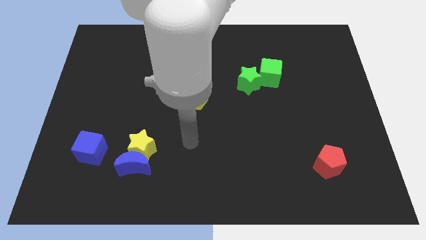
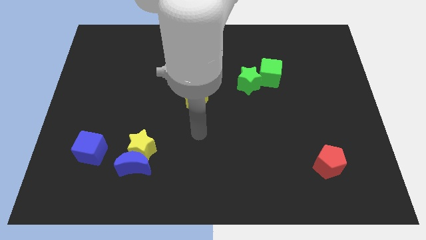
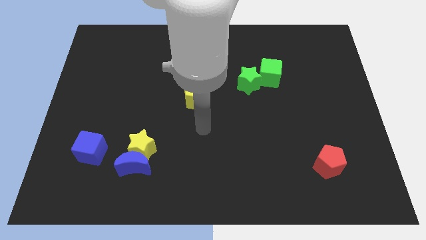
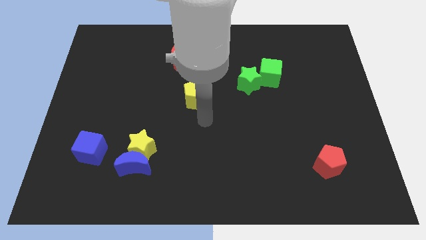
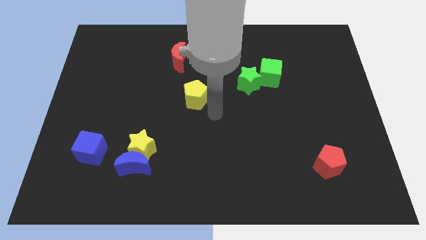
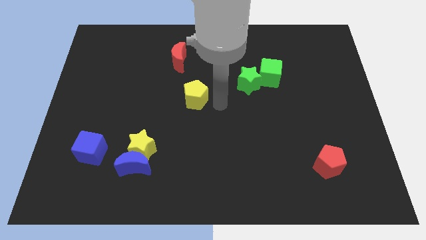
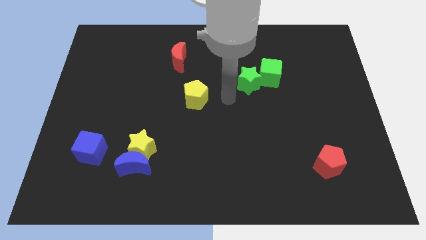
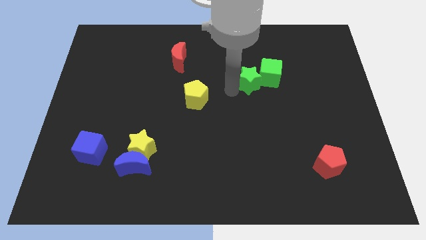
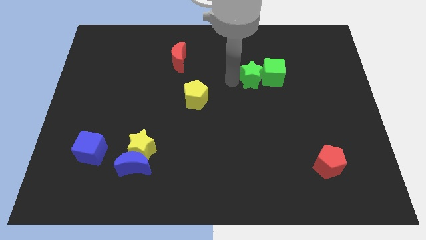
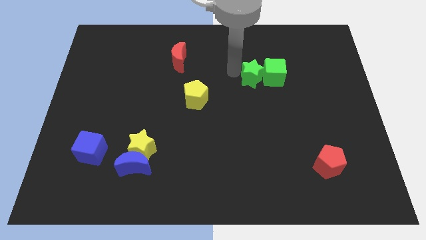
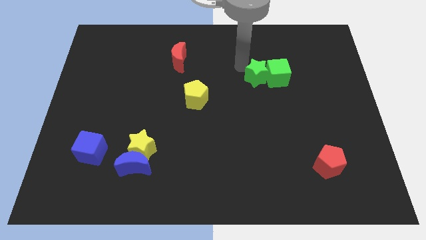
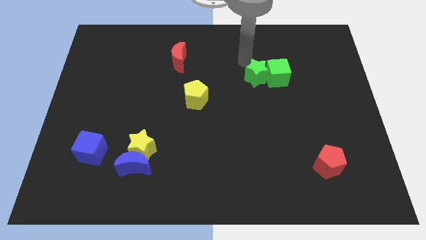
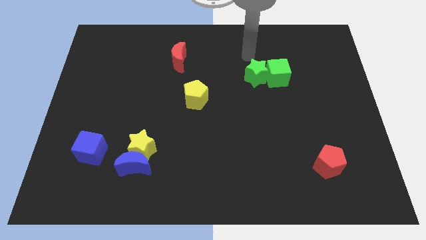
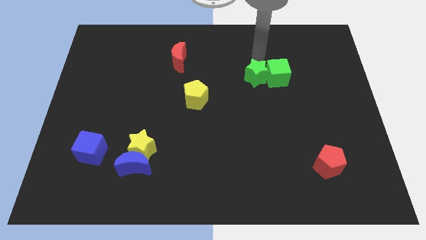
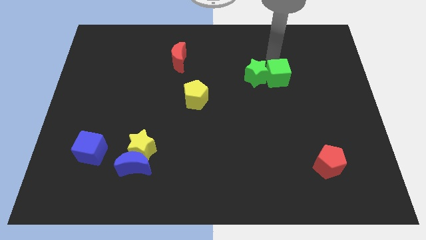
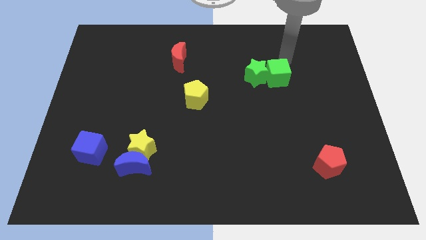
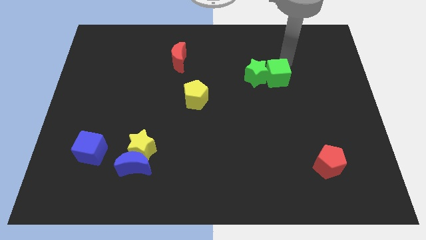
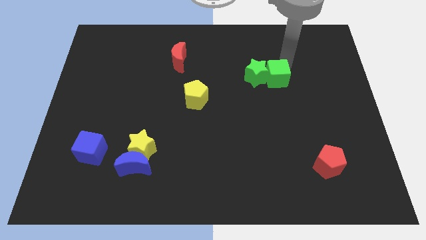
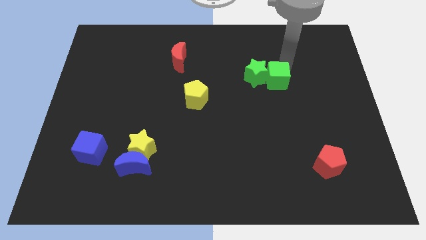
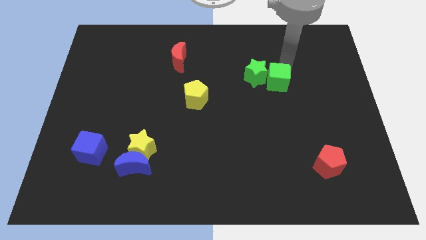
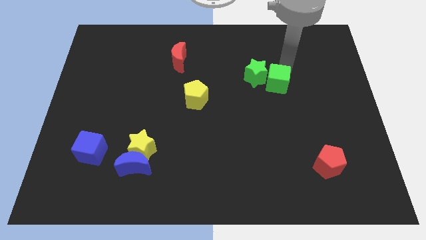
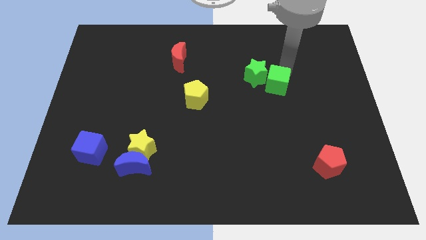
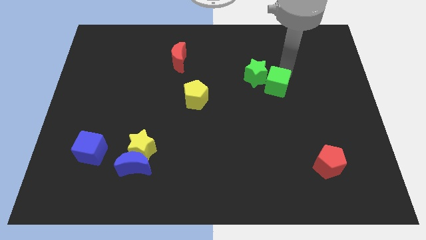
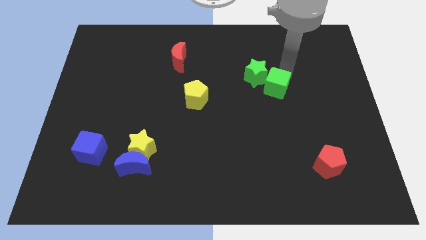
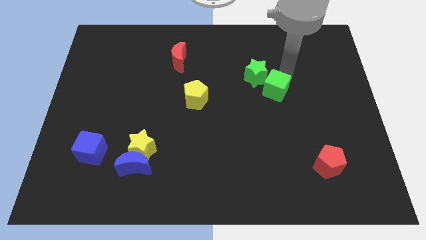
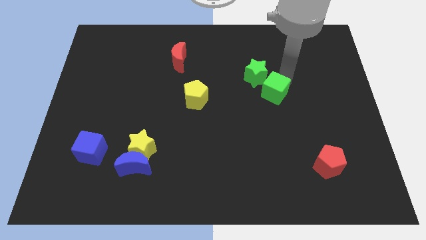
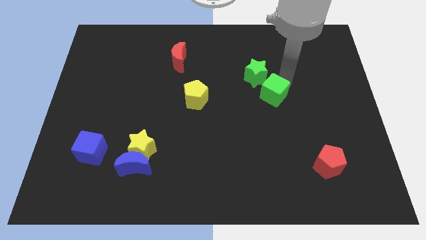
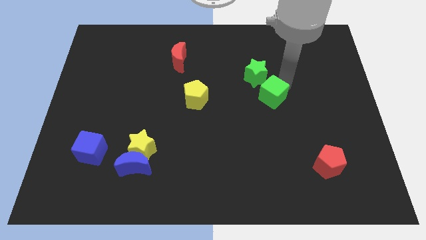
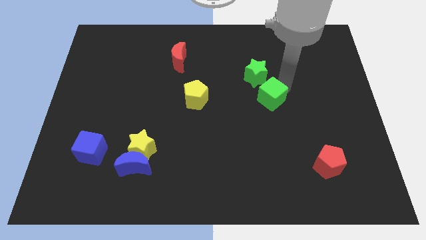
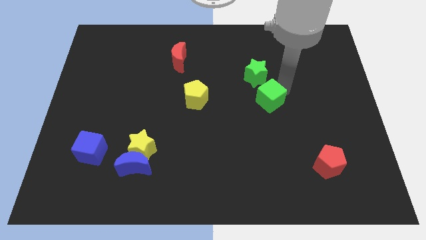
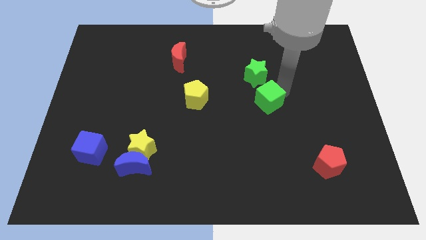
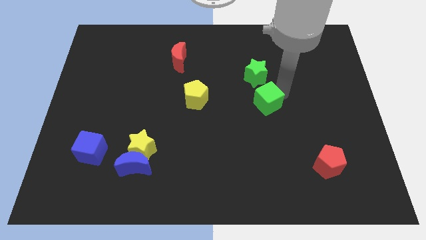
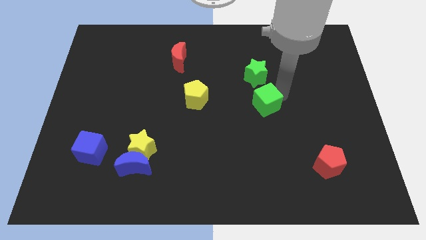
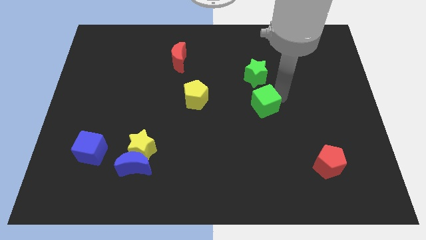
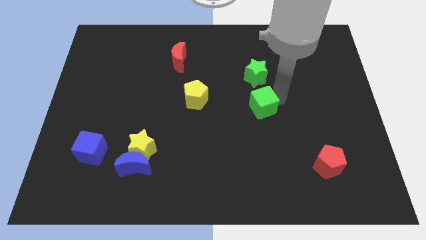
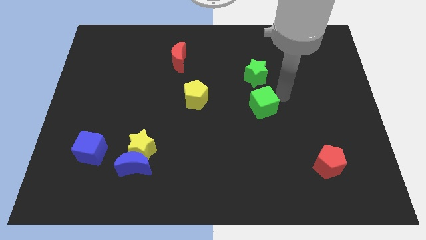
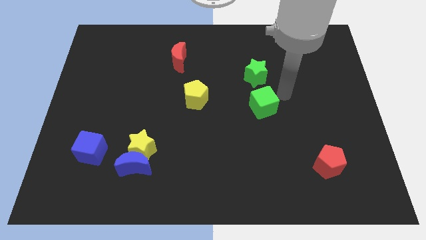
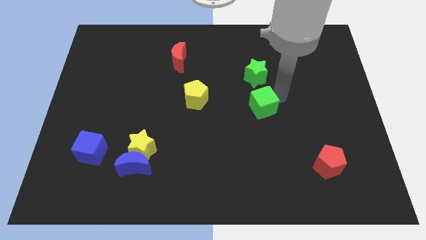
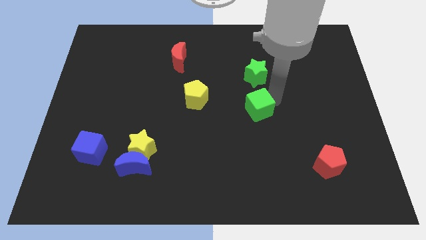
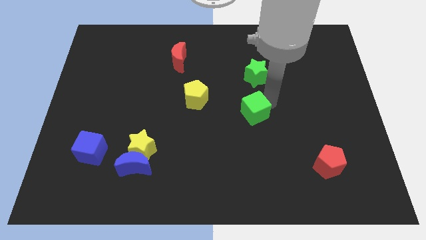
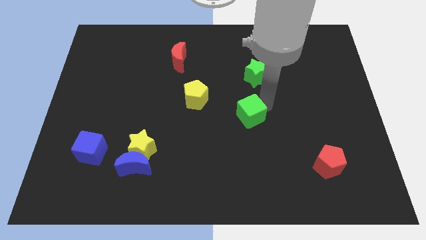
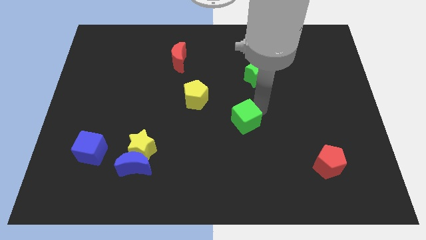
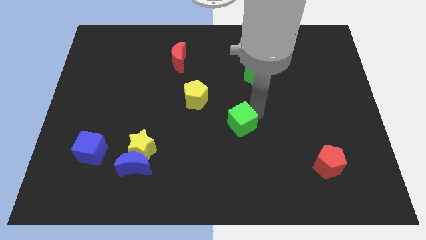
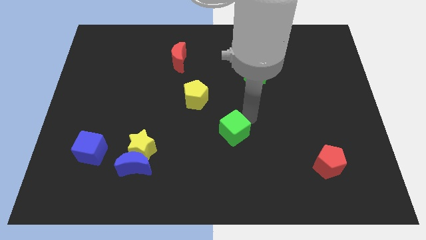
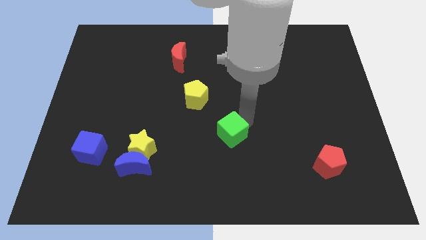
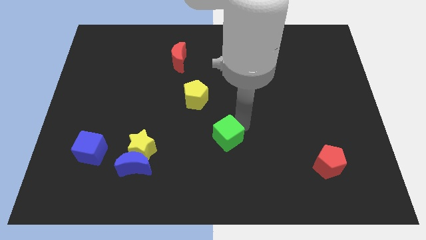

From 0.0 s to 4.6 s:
push the green cube down and left

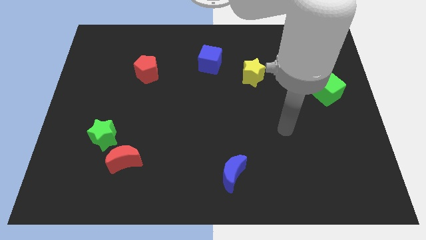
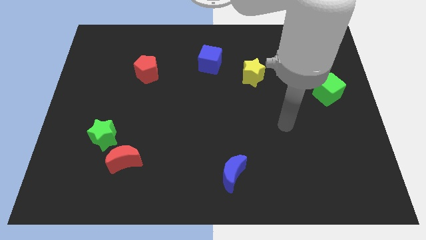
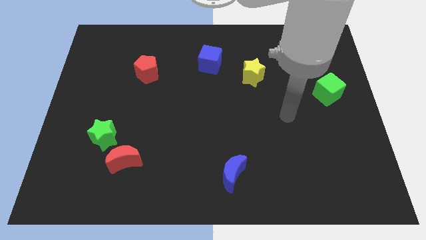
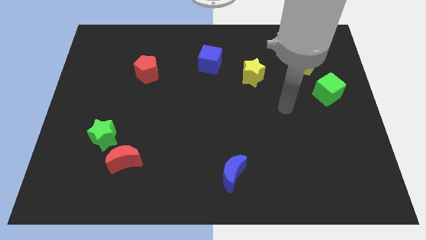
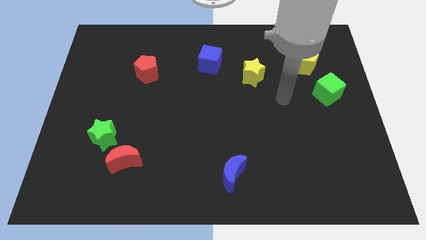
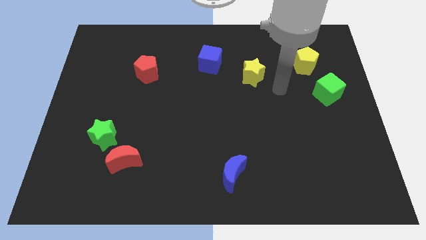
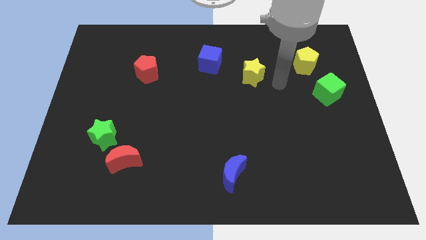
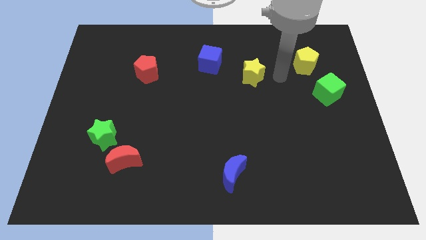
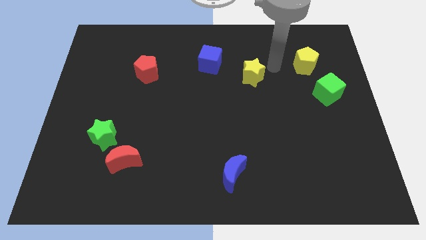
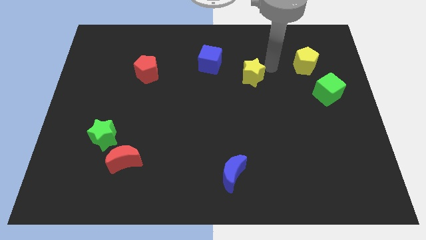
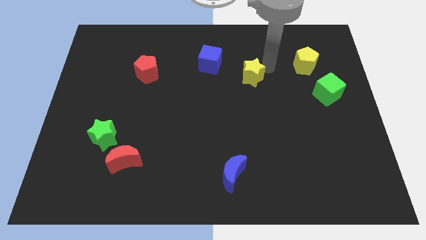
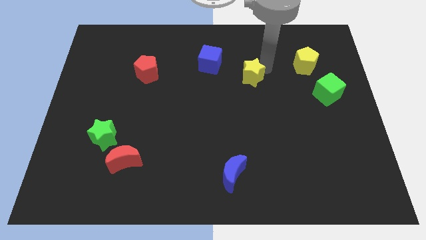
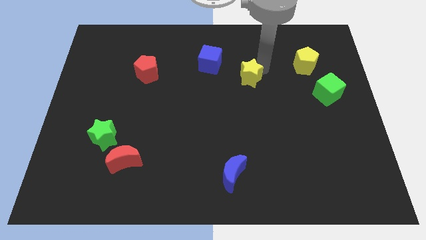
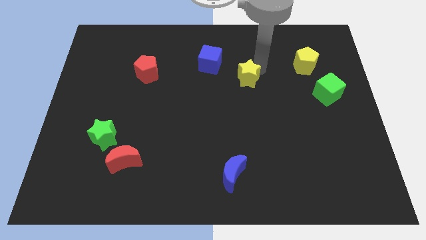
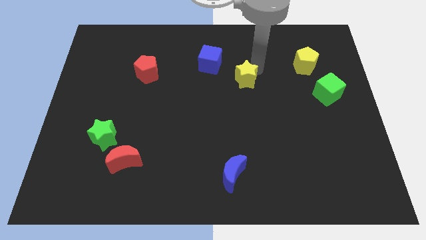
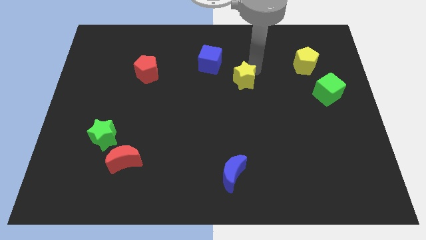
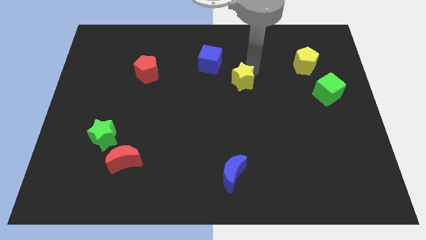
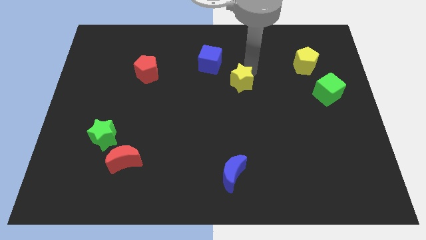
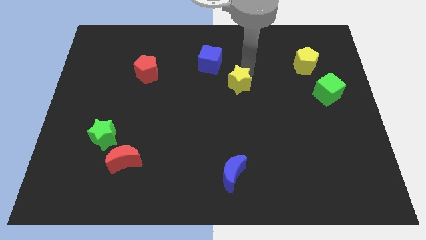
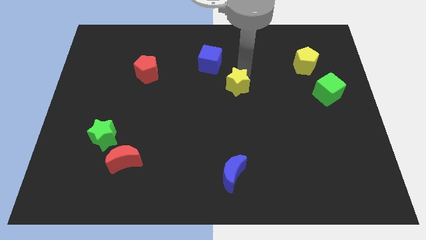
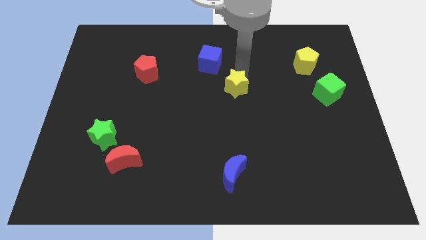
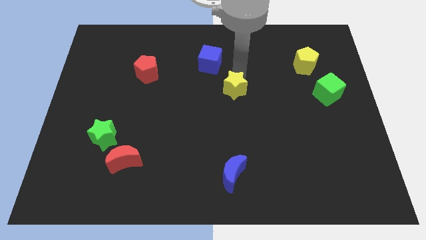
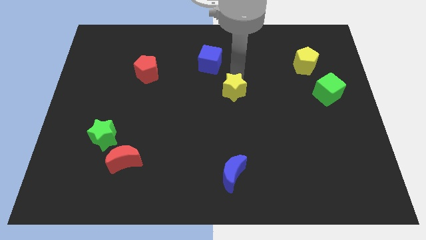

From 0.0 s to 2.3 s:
slightly move the yellow star down and to the left diagonally

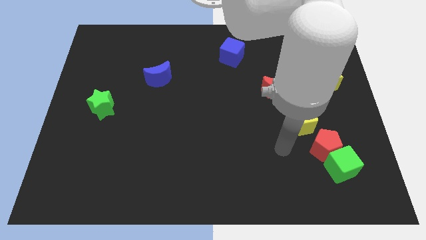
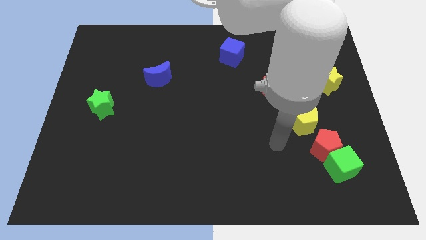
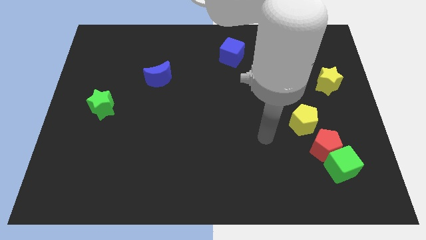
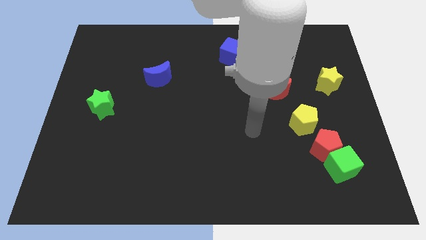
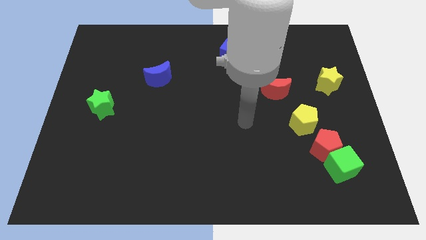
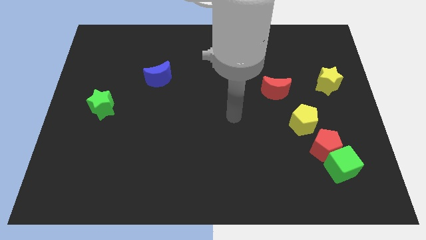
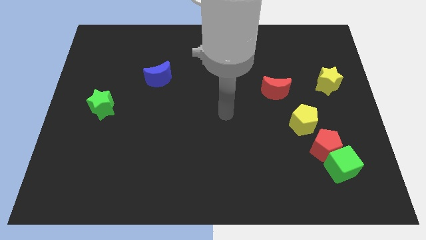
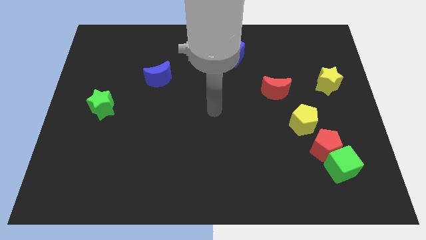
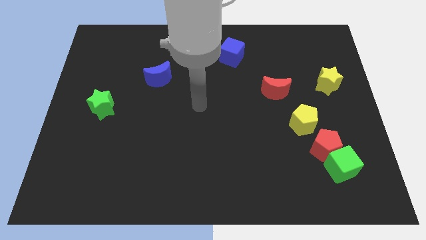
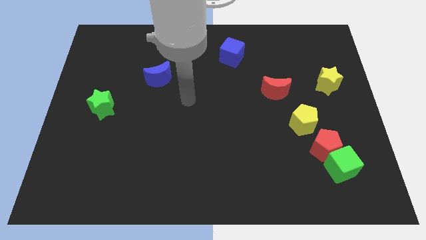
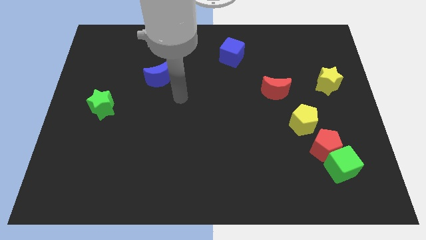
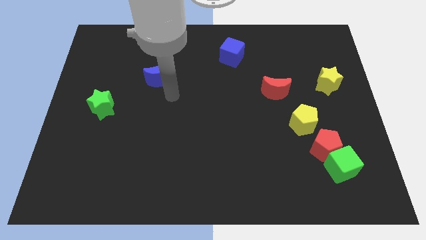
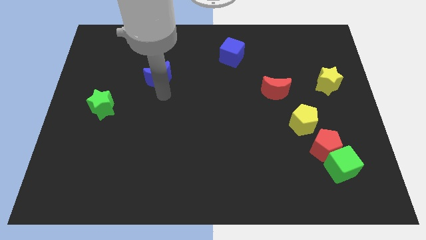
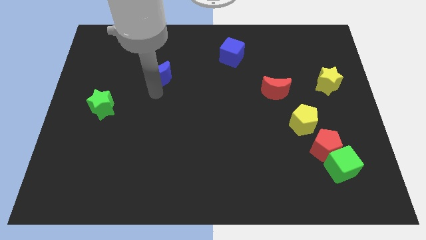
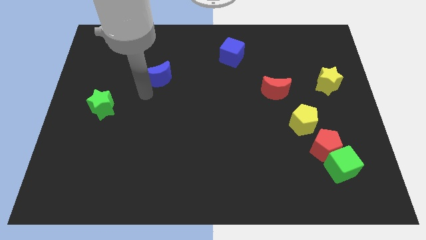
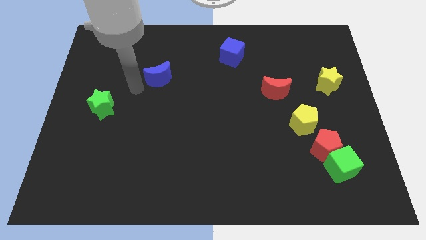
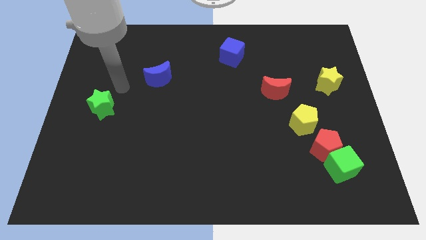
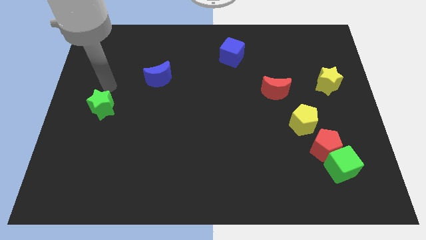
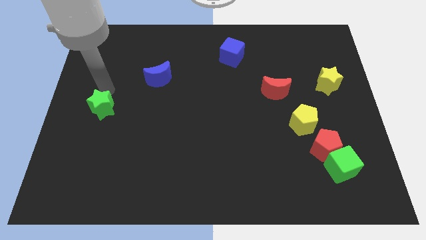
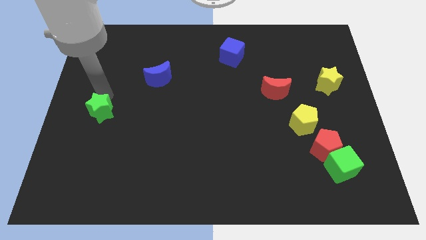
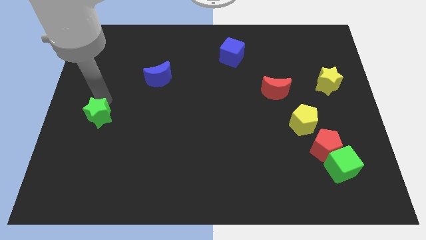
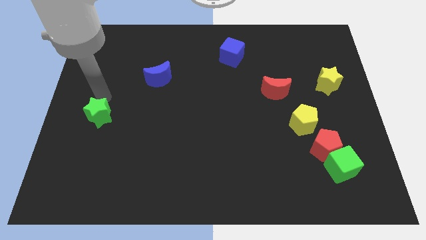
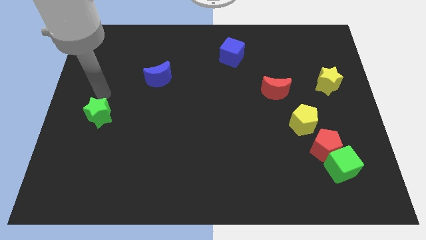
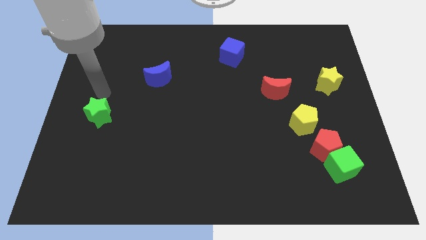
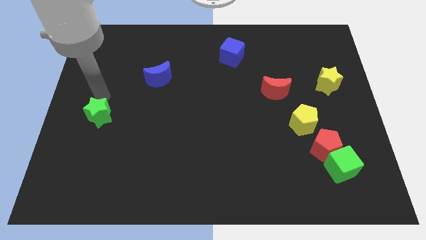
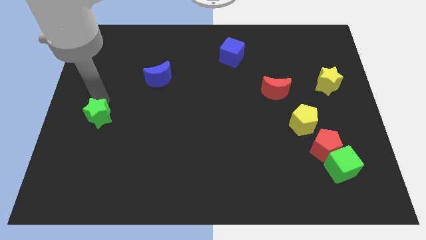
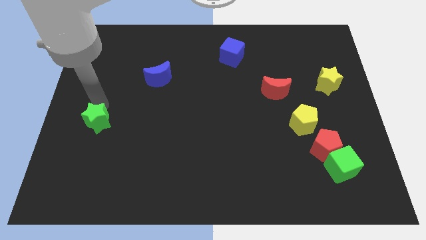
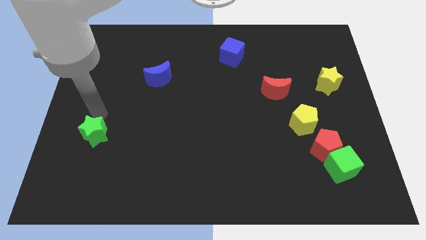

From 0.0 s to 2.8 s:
slide the green star a little down
